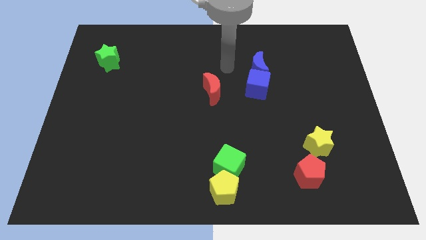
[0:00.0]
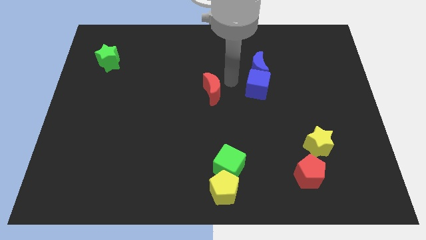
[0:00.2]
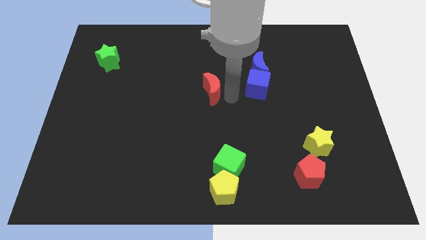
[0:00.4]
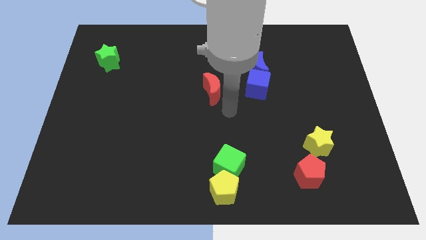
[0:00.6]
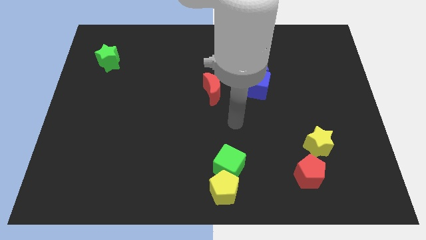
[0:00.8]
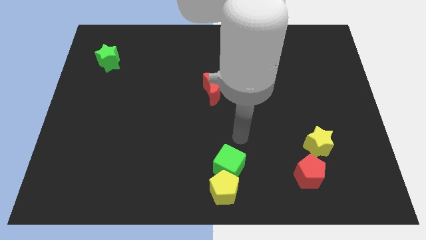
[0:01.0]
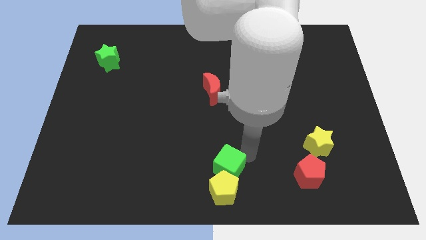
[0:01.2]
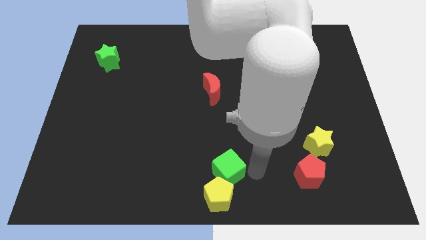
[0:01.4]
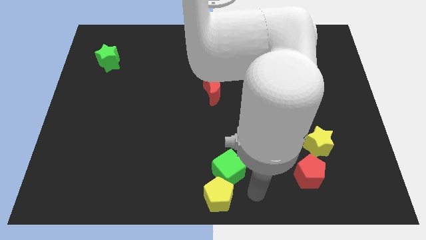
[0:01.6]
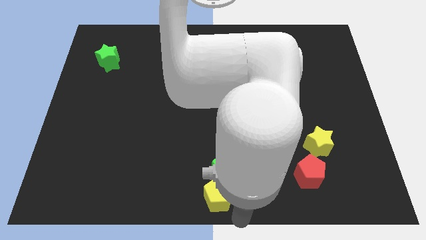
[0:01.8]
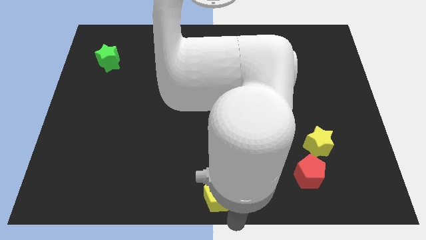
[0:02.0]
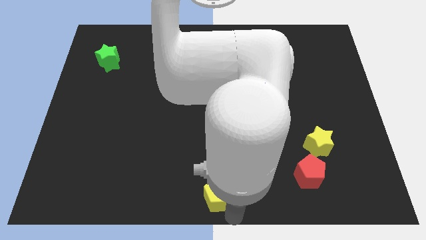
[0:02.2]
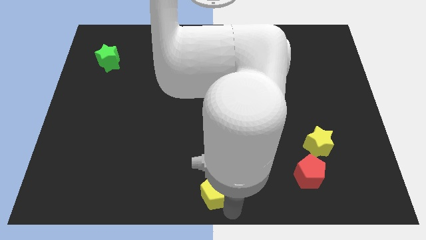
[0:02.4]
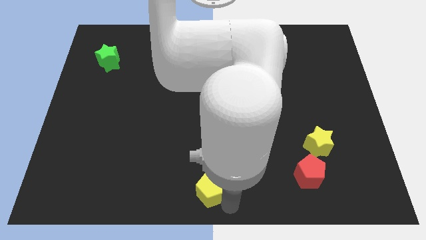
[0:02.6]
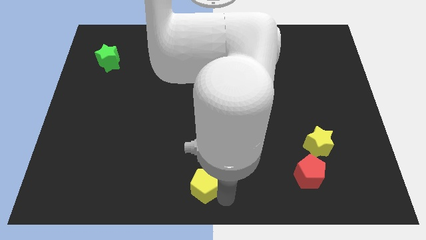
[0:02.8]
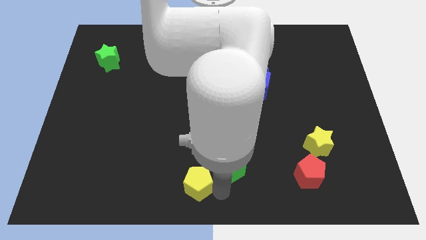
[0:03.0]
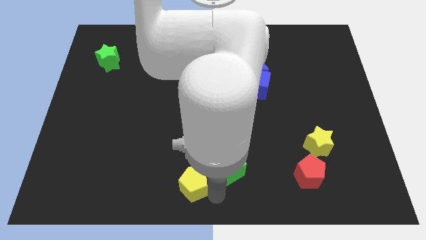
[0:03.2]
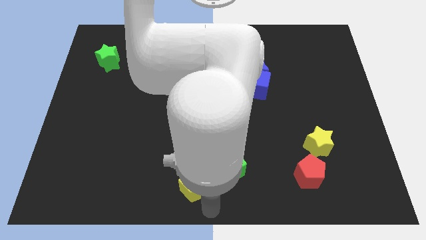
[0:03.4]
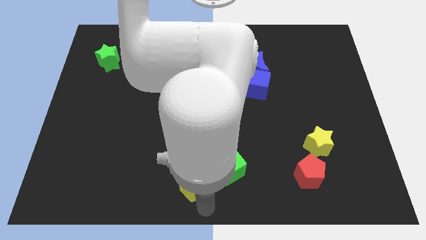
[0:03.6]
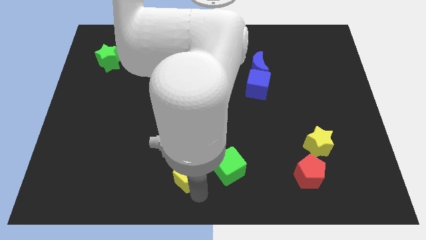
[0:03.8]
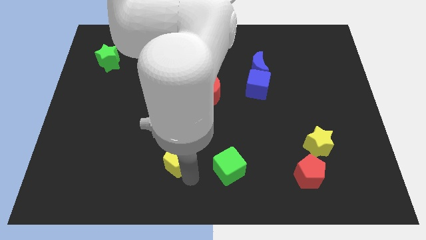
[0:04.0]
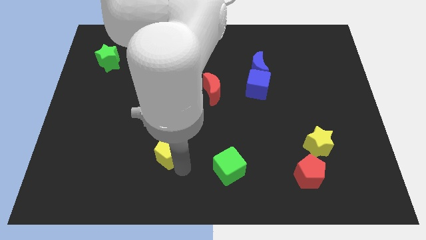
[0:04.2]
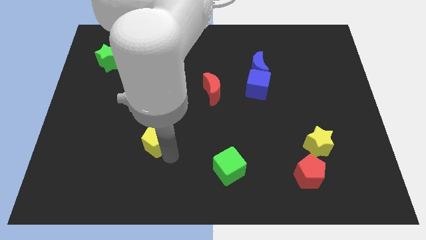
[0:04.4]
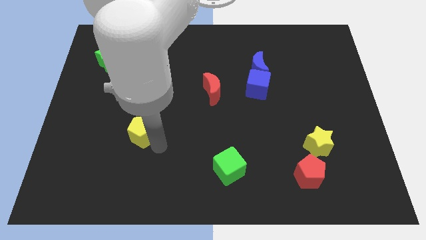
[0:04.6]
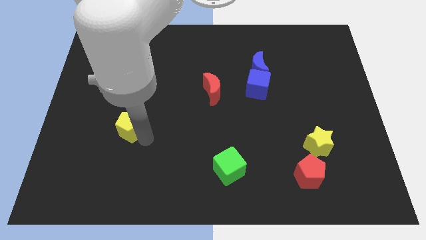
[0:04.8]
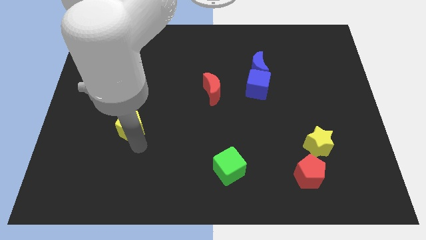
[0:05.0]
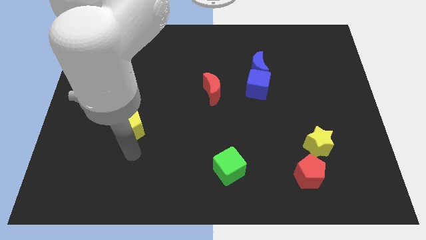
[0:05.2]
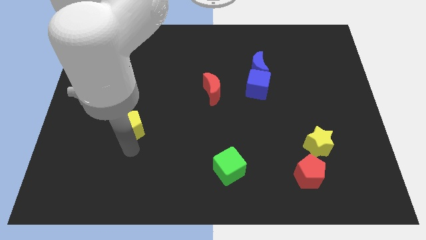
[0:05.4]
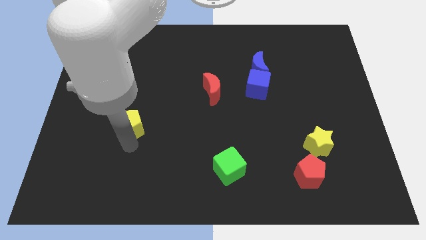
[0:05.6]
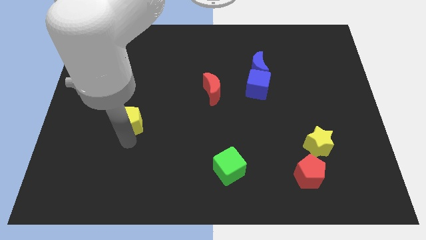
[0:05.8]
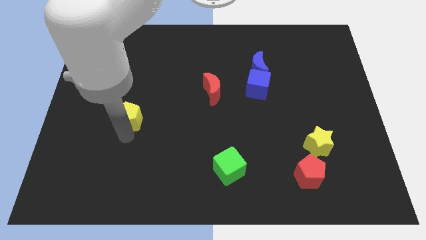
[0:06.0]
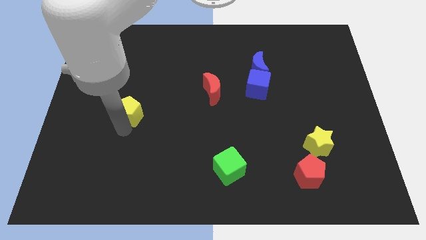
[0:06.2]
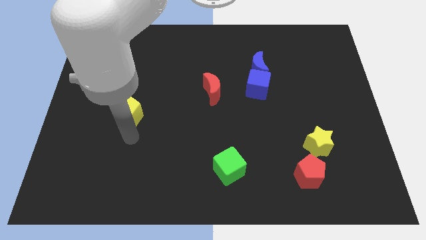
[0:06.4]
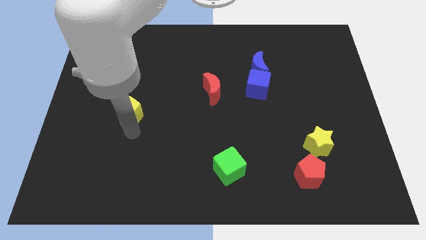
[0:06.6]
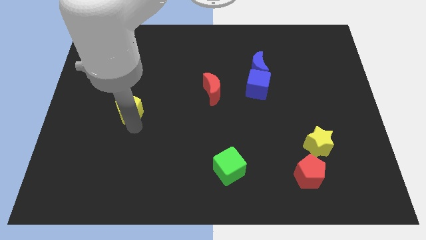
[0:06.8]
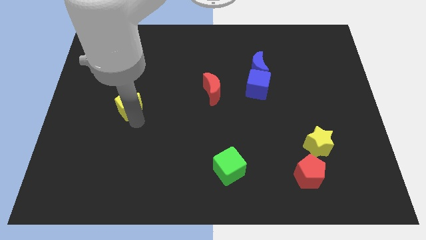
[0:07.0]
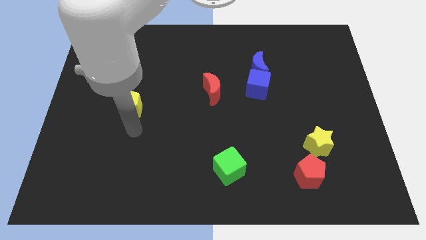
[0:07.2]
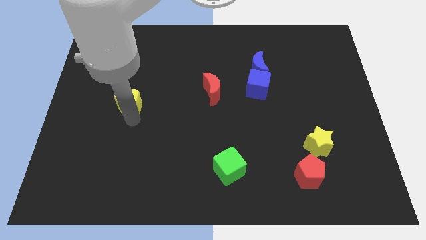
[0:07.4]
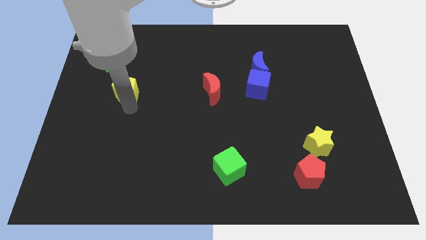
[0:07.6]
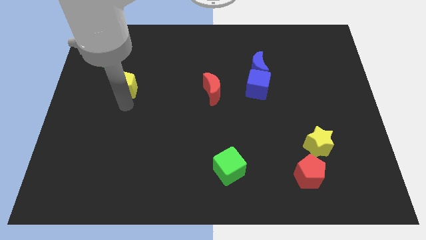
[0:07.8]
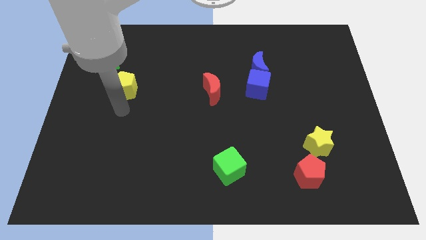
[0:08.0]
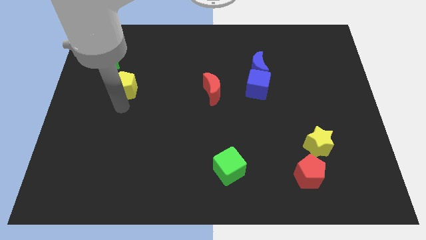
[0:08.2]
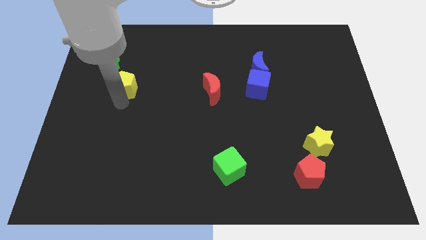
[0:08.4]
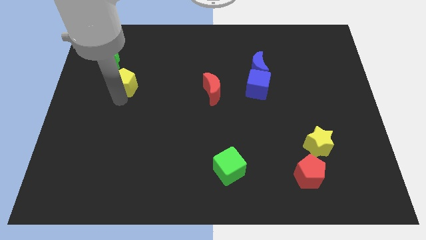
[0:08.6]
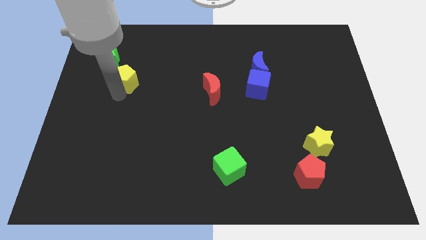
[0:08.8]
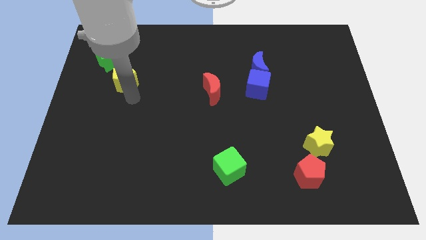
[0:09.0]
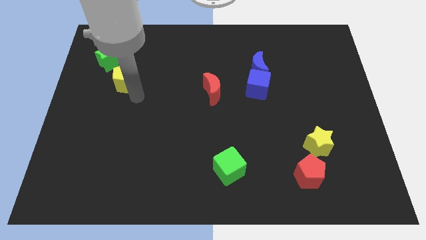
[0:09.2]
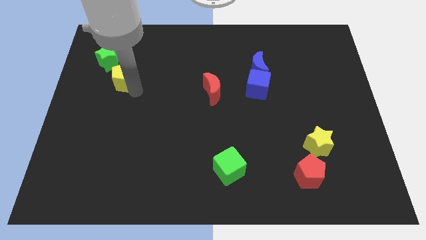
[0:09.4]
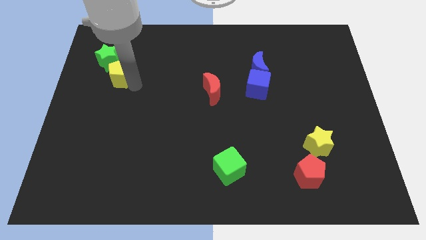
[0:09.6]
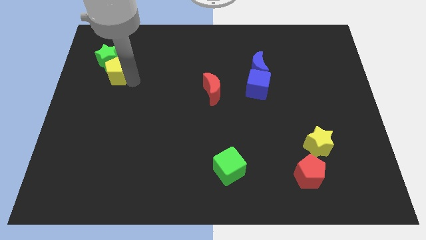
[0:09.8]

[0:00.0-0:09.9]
push the yellow pentagon next to the green star

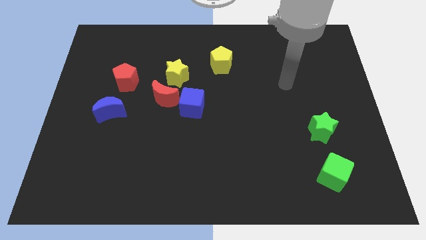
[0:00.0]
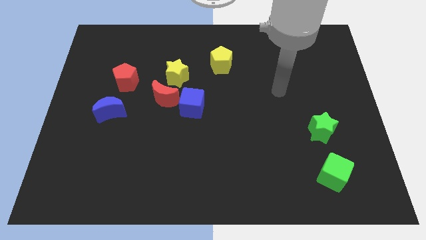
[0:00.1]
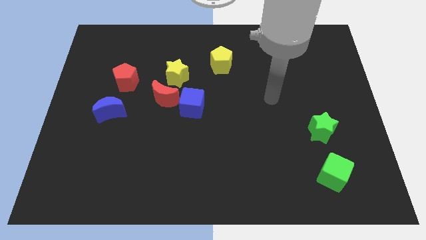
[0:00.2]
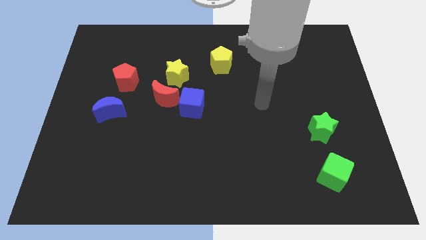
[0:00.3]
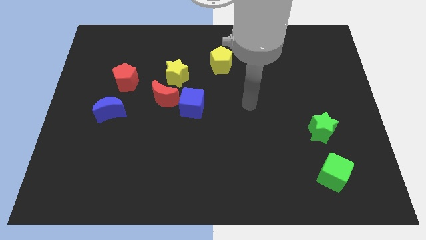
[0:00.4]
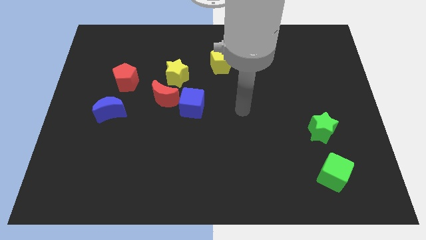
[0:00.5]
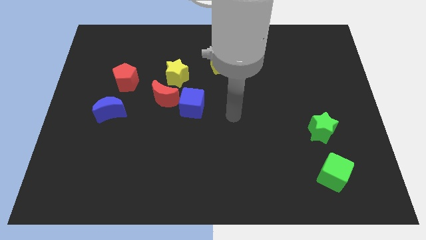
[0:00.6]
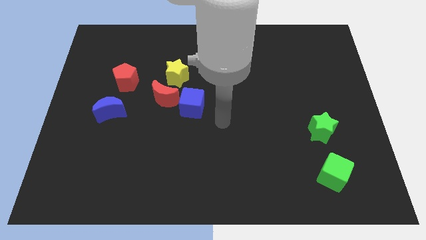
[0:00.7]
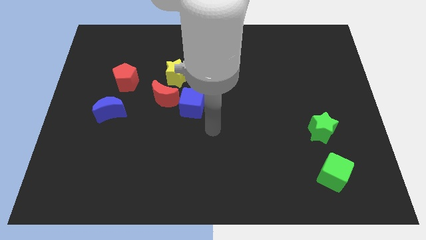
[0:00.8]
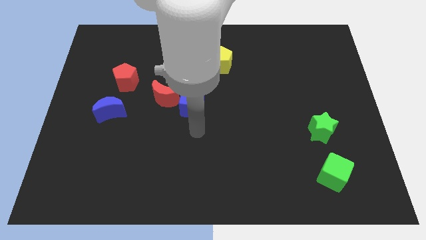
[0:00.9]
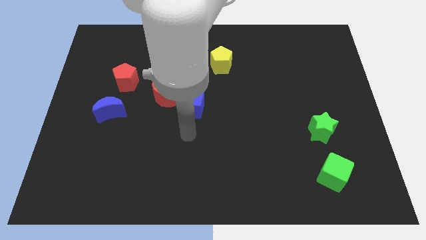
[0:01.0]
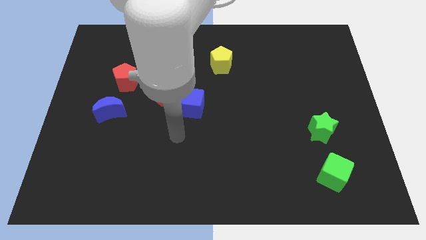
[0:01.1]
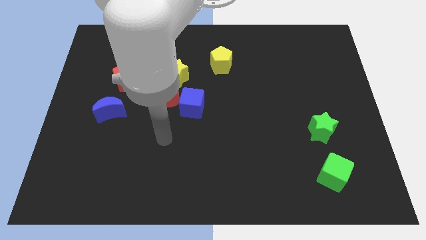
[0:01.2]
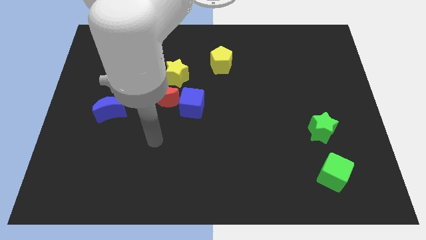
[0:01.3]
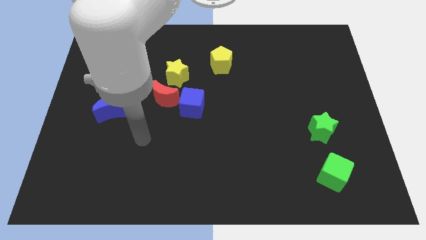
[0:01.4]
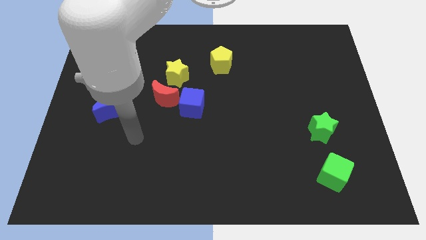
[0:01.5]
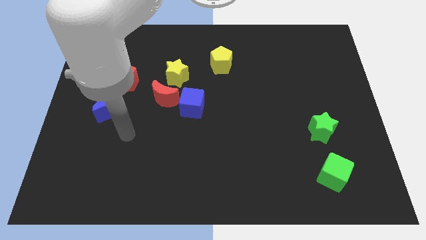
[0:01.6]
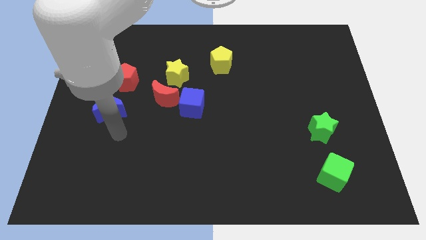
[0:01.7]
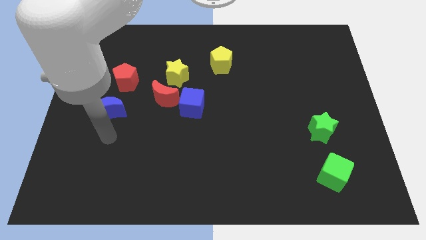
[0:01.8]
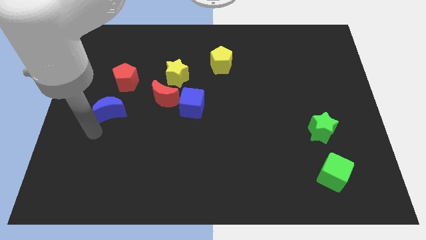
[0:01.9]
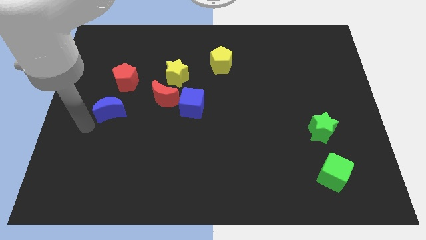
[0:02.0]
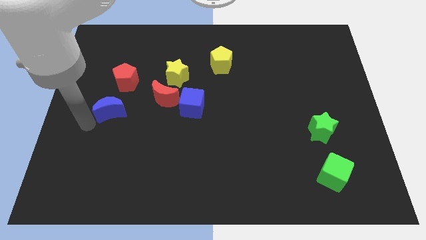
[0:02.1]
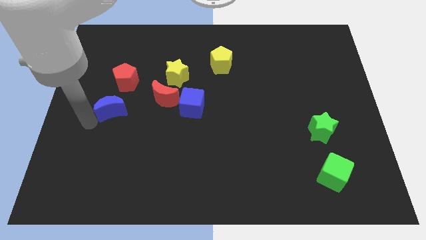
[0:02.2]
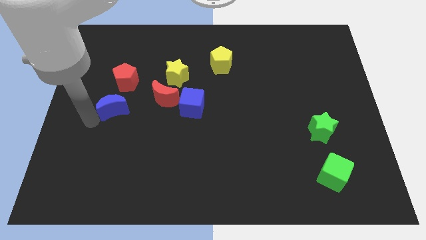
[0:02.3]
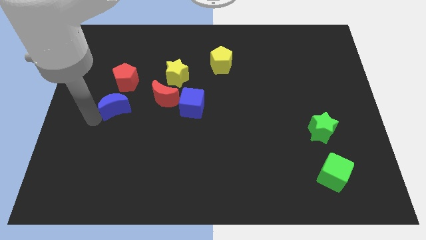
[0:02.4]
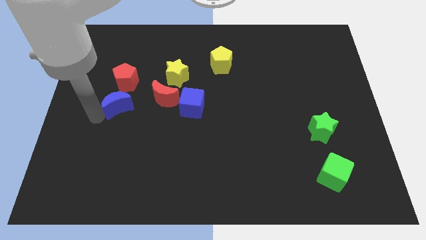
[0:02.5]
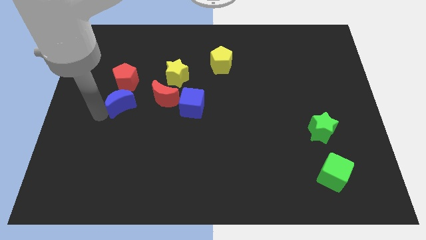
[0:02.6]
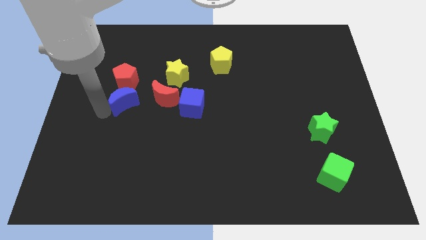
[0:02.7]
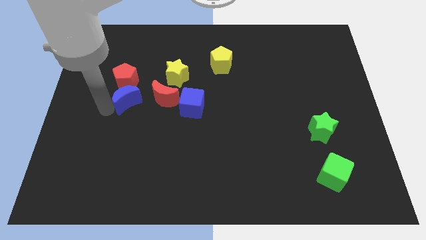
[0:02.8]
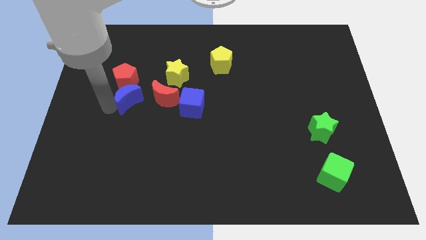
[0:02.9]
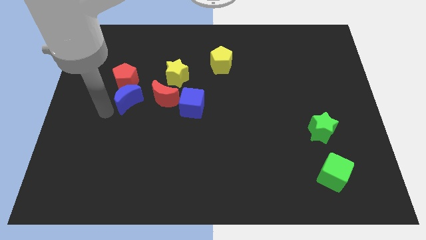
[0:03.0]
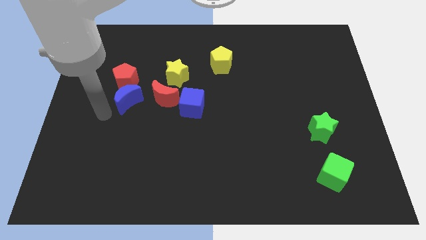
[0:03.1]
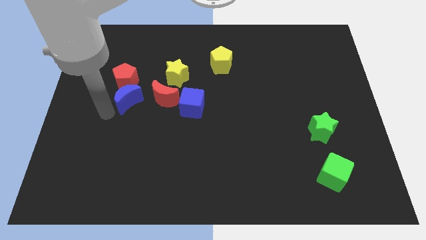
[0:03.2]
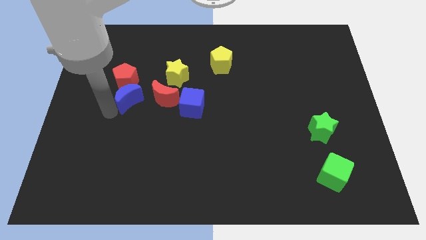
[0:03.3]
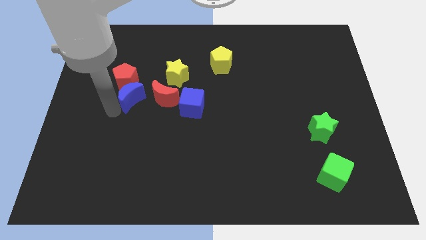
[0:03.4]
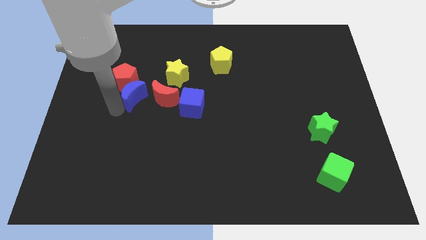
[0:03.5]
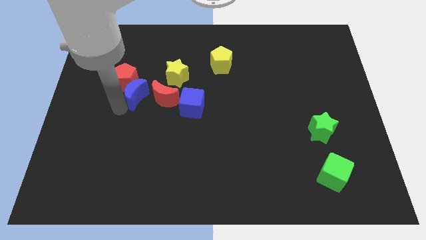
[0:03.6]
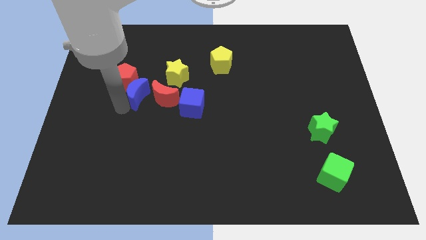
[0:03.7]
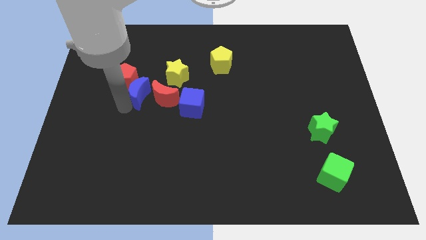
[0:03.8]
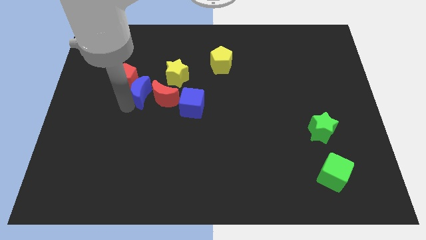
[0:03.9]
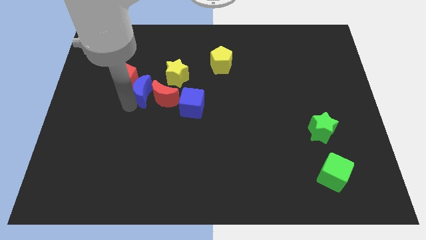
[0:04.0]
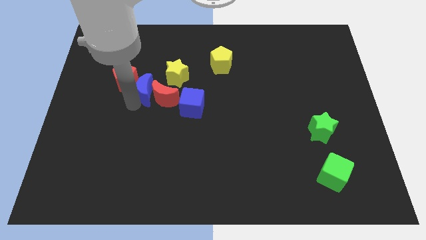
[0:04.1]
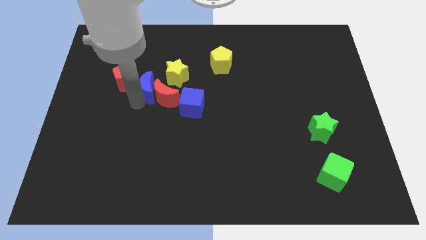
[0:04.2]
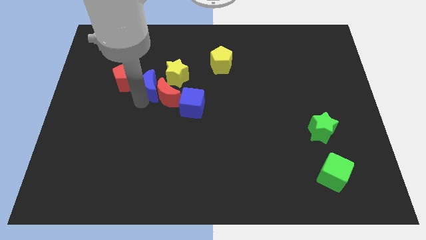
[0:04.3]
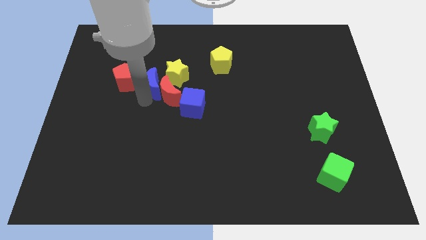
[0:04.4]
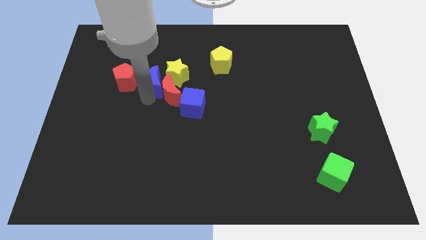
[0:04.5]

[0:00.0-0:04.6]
push the blue moon towards the yellow star
